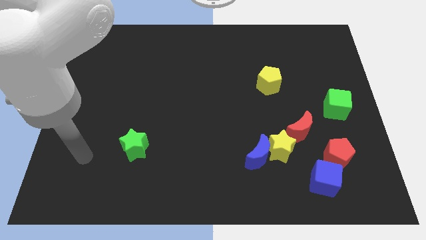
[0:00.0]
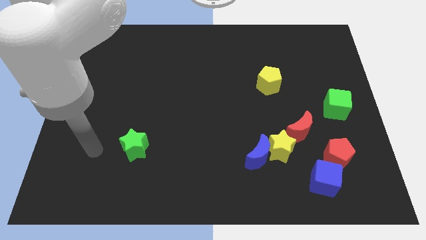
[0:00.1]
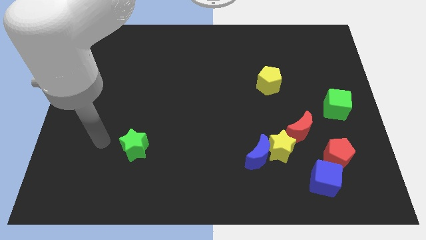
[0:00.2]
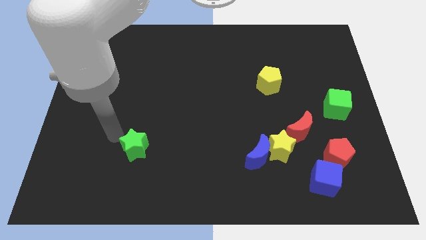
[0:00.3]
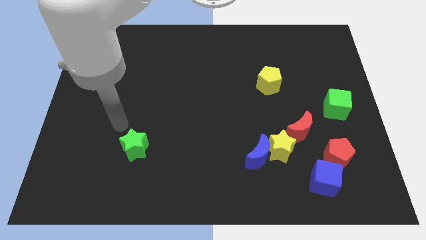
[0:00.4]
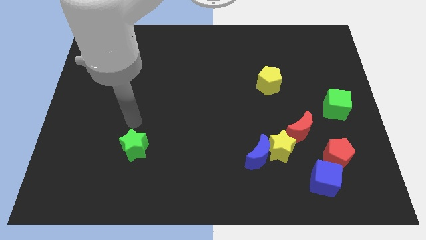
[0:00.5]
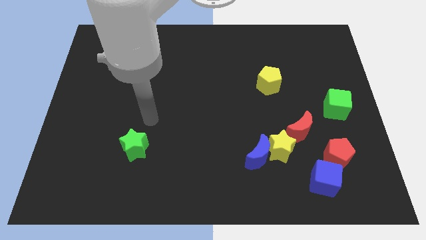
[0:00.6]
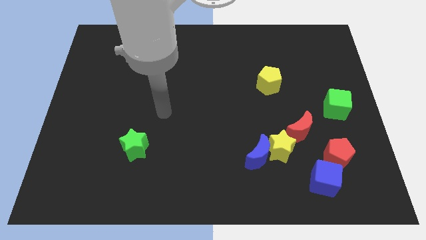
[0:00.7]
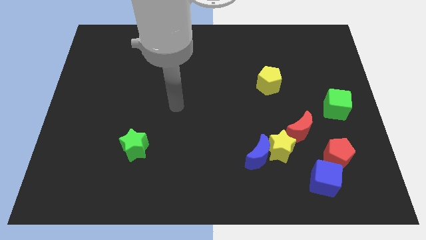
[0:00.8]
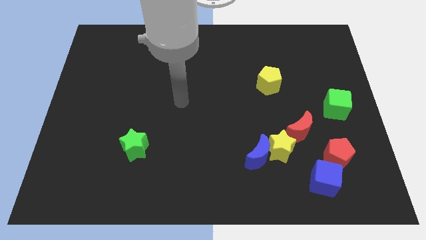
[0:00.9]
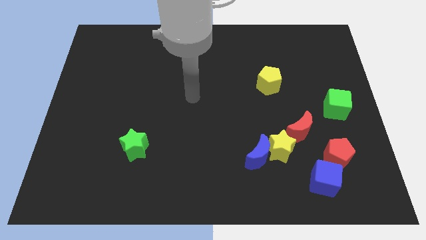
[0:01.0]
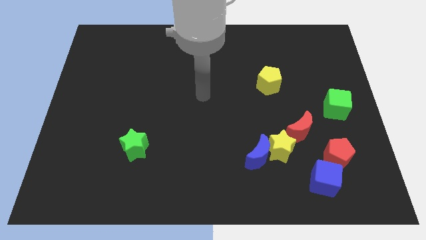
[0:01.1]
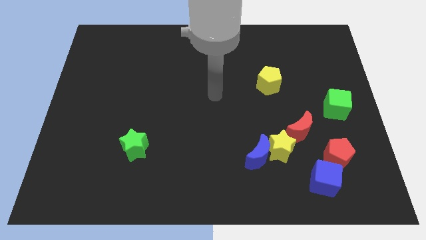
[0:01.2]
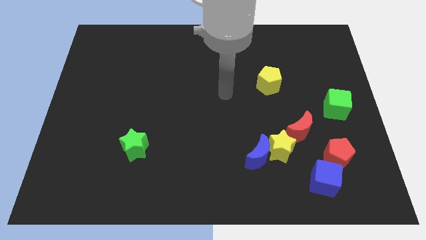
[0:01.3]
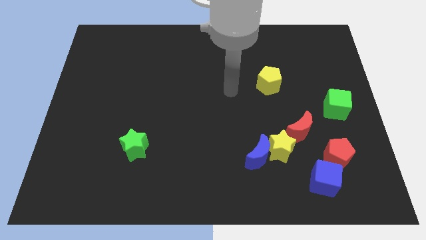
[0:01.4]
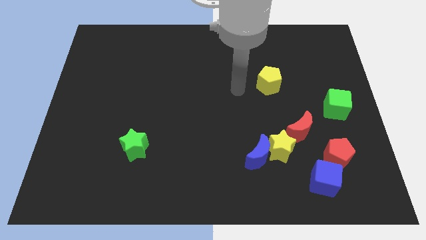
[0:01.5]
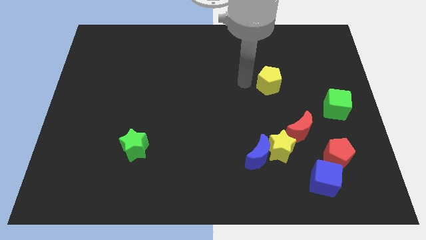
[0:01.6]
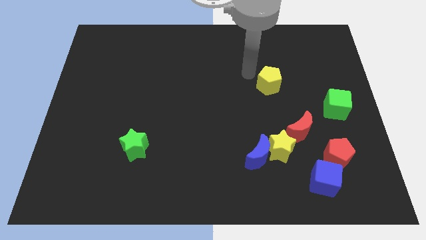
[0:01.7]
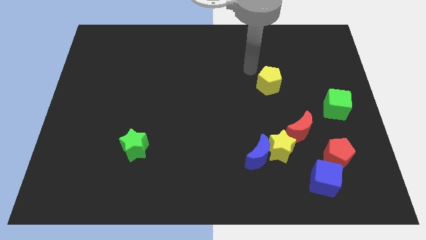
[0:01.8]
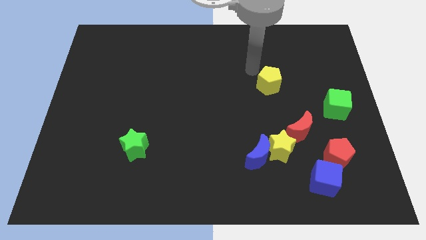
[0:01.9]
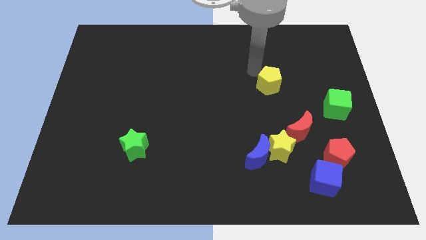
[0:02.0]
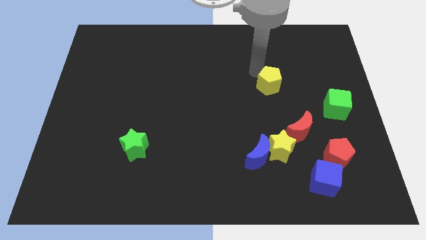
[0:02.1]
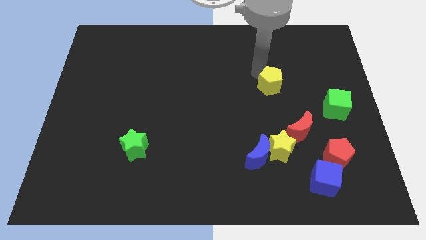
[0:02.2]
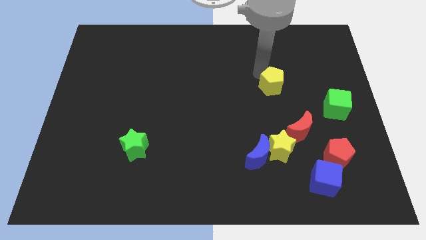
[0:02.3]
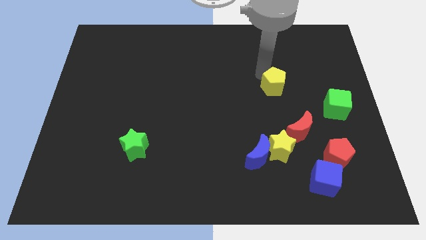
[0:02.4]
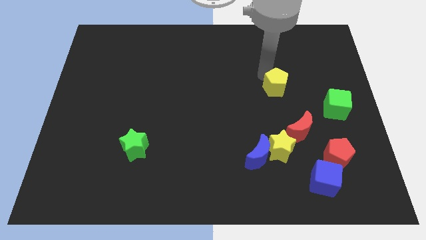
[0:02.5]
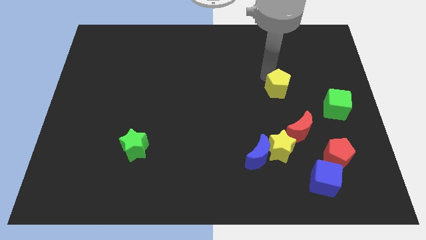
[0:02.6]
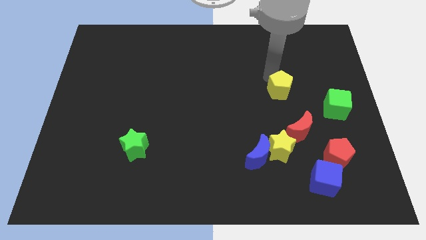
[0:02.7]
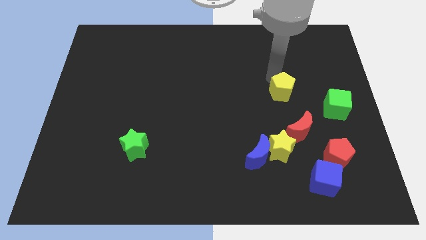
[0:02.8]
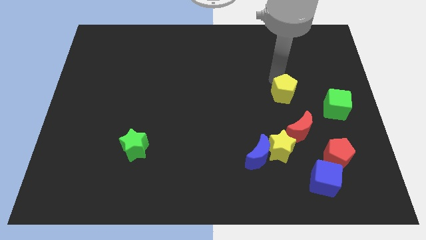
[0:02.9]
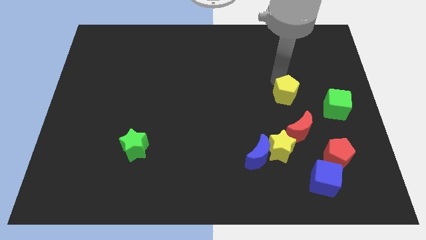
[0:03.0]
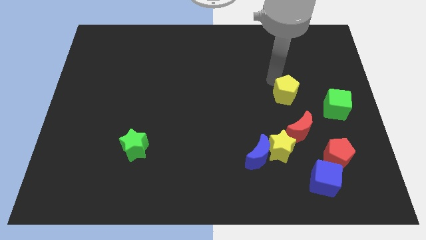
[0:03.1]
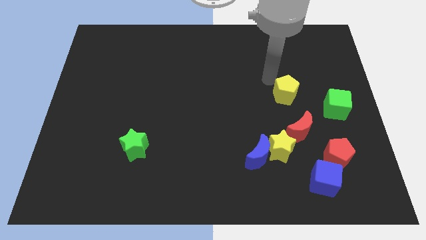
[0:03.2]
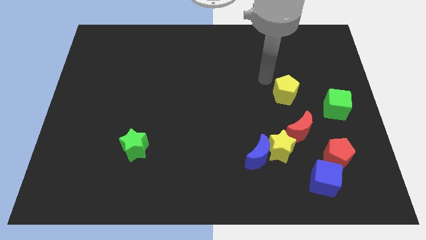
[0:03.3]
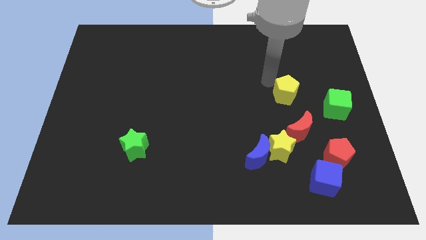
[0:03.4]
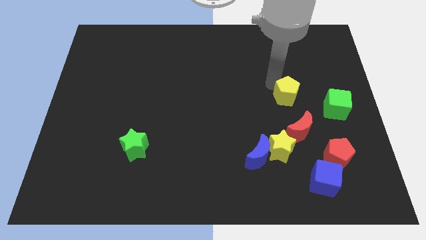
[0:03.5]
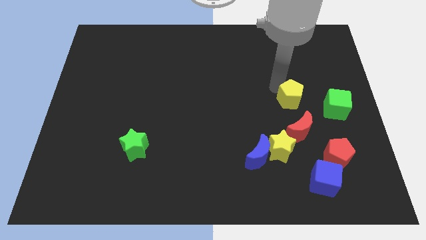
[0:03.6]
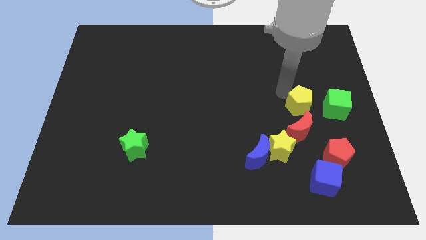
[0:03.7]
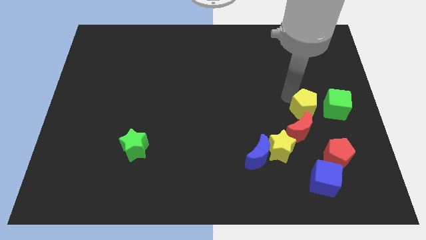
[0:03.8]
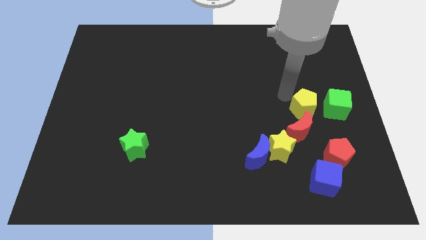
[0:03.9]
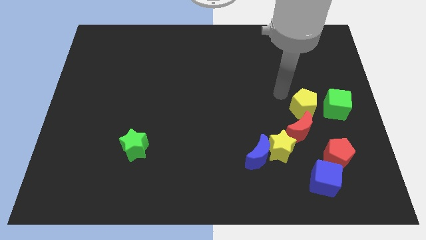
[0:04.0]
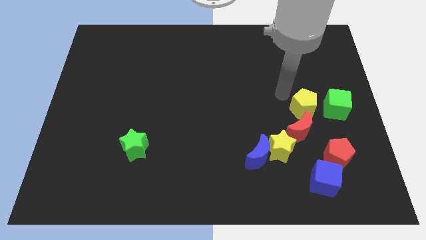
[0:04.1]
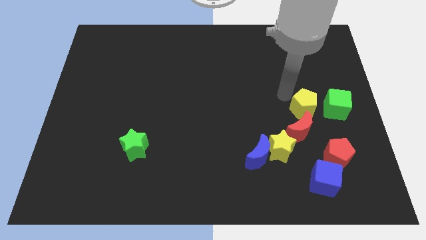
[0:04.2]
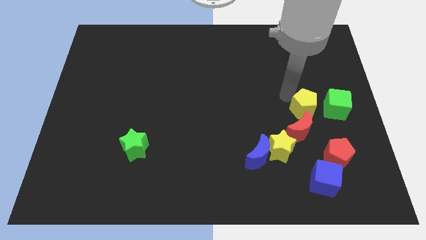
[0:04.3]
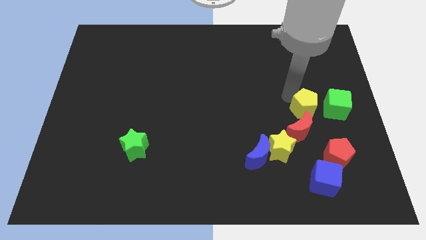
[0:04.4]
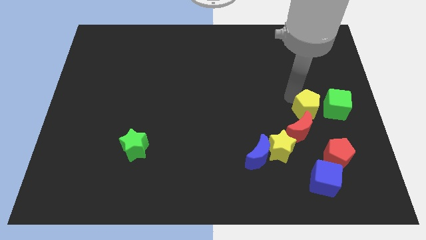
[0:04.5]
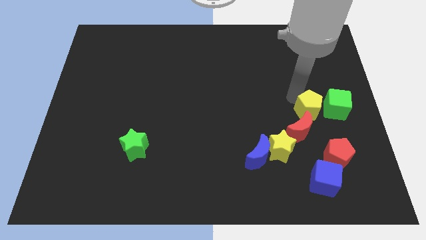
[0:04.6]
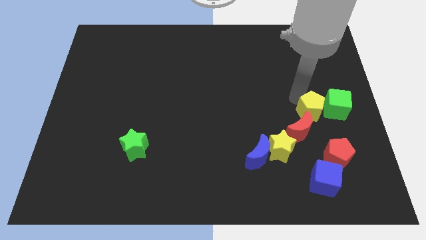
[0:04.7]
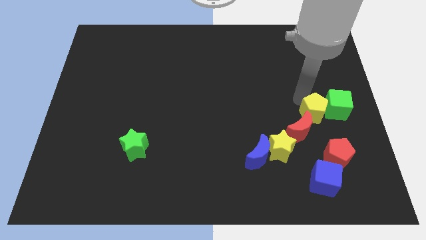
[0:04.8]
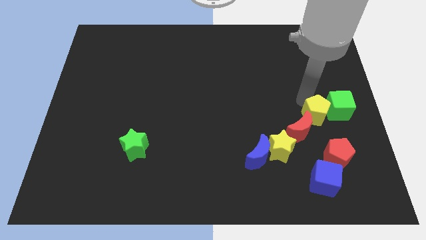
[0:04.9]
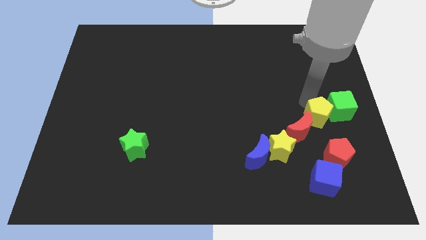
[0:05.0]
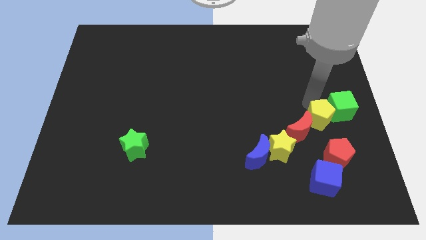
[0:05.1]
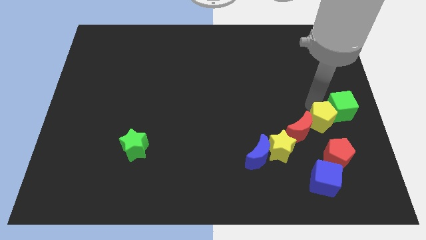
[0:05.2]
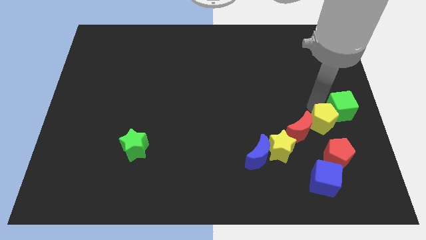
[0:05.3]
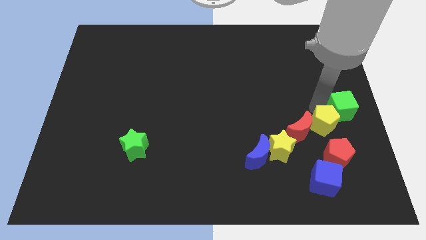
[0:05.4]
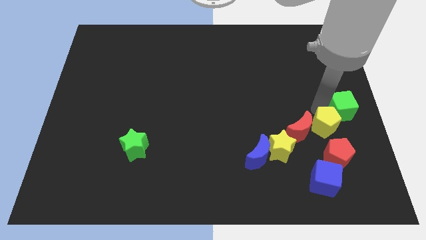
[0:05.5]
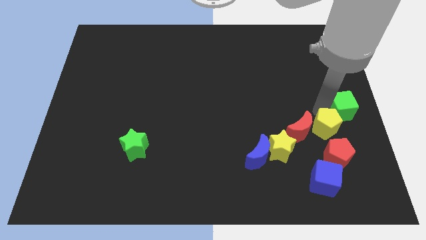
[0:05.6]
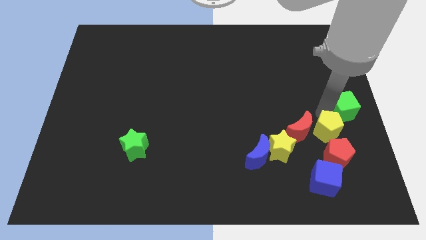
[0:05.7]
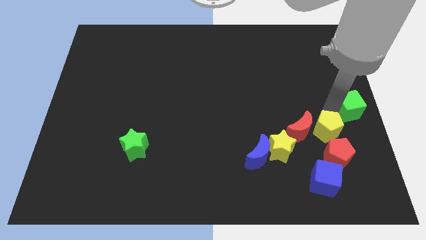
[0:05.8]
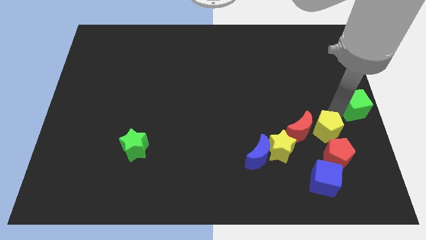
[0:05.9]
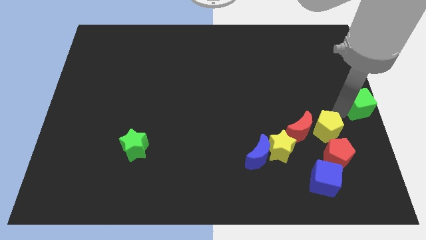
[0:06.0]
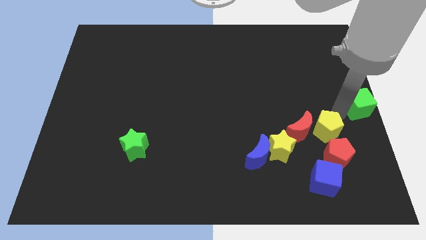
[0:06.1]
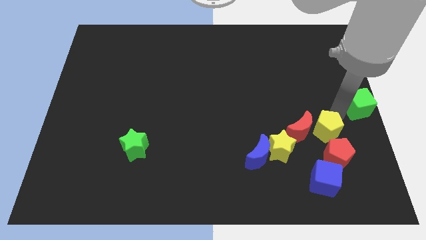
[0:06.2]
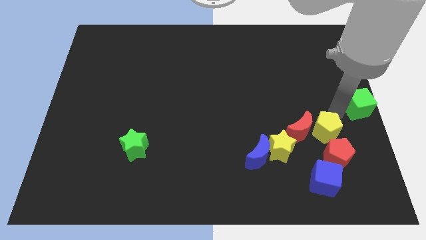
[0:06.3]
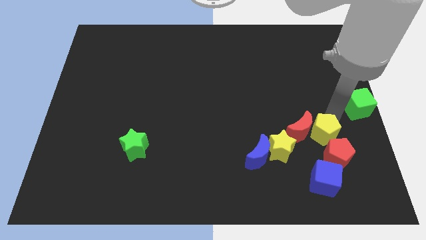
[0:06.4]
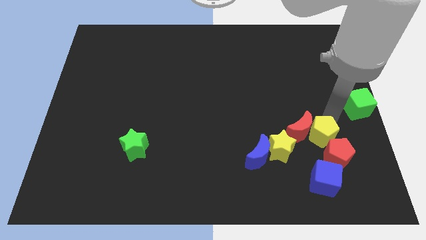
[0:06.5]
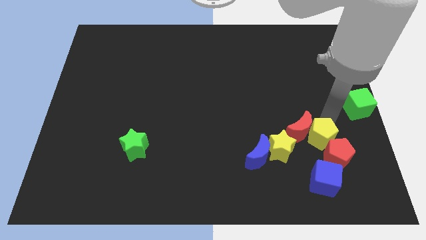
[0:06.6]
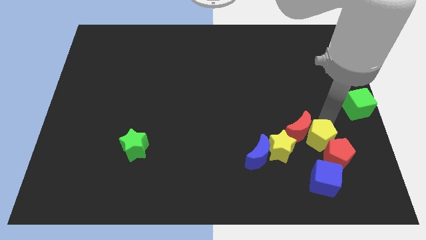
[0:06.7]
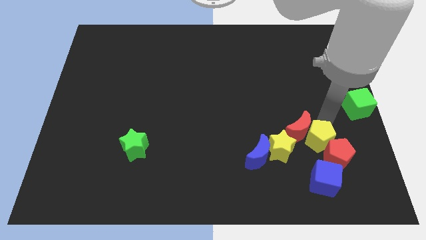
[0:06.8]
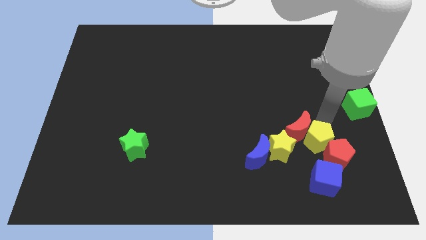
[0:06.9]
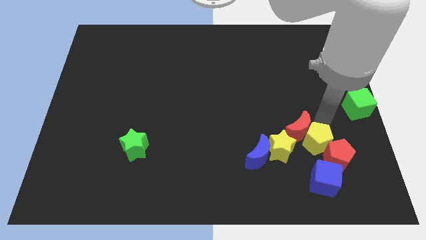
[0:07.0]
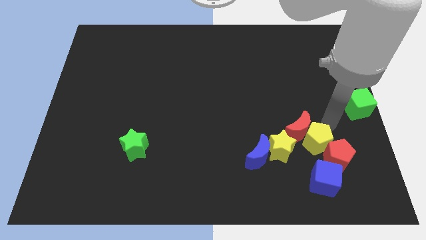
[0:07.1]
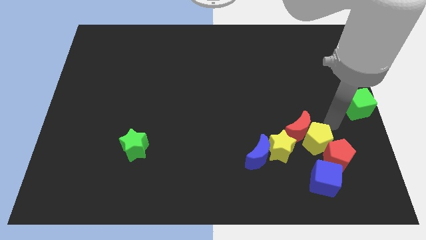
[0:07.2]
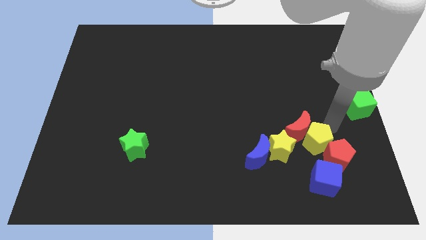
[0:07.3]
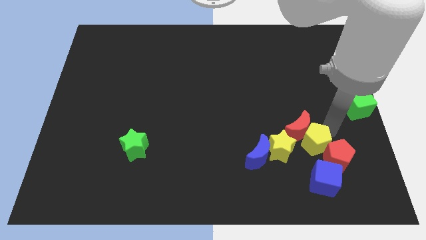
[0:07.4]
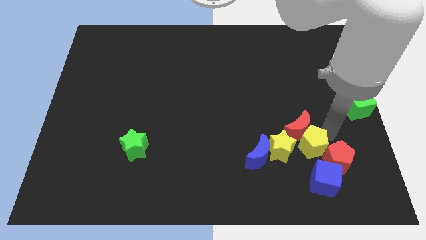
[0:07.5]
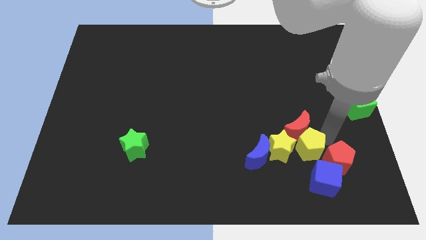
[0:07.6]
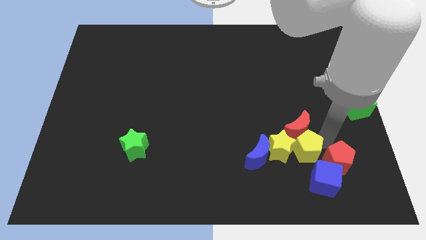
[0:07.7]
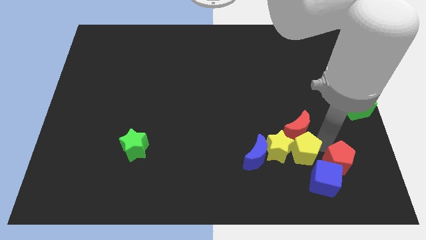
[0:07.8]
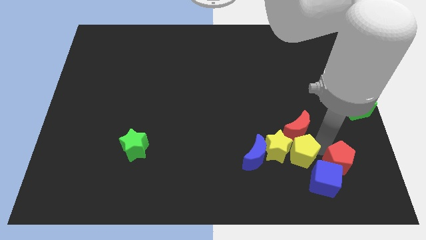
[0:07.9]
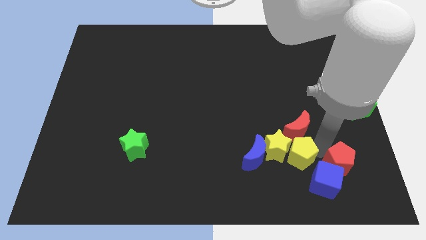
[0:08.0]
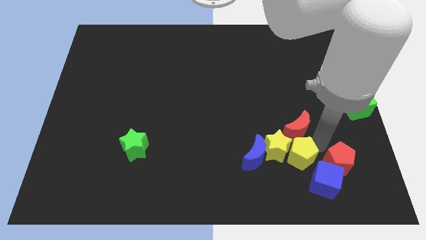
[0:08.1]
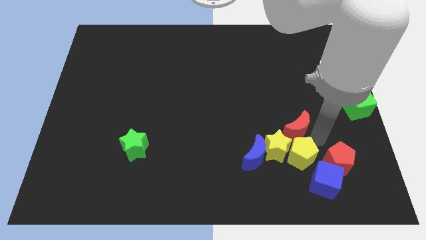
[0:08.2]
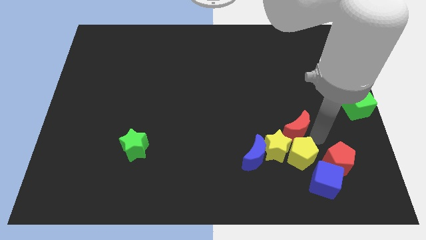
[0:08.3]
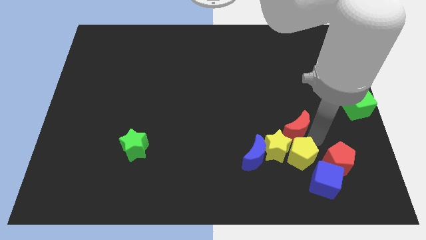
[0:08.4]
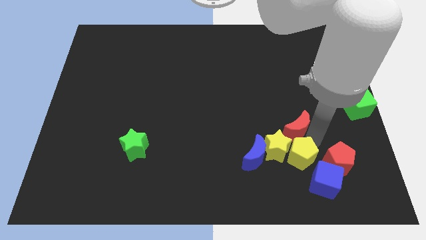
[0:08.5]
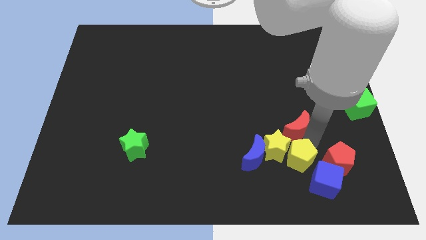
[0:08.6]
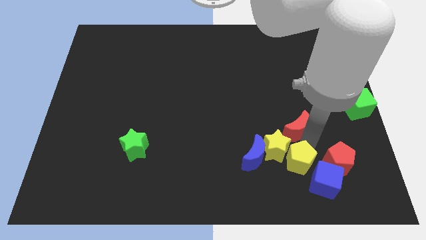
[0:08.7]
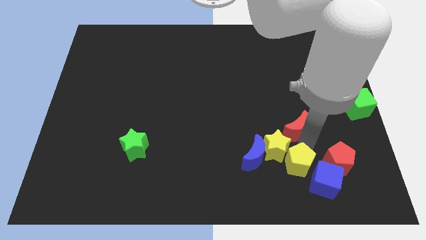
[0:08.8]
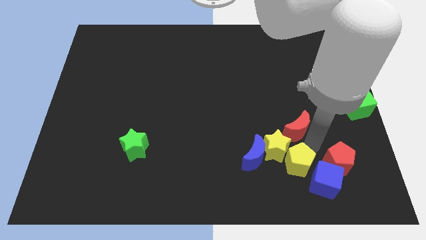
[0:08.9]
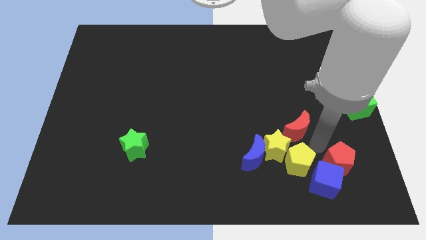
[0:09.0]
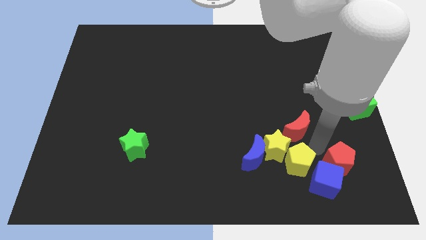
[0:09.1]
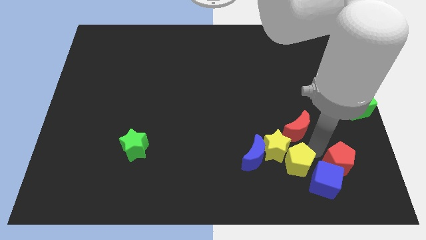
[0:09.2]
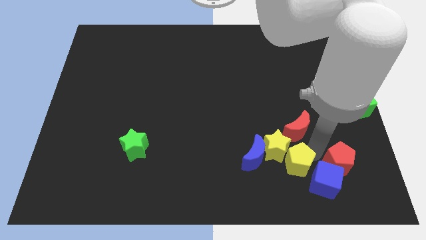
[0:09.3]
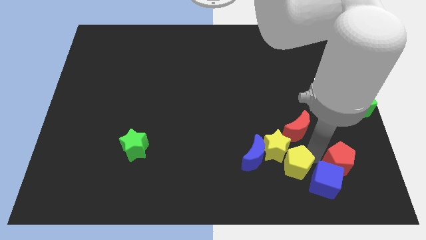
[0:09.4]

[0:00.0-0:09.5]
push the yellow pentagon diagonally down and to the right of the blue moon
